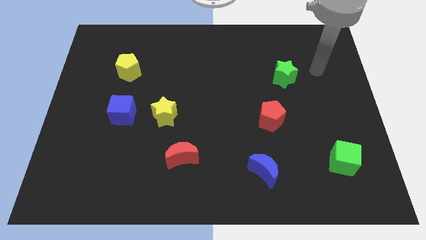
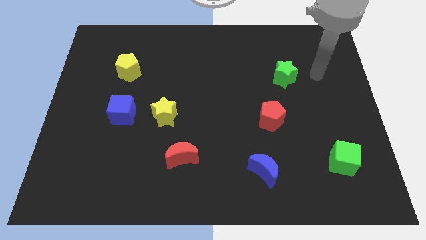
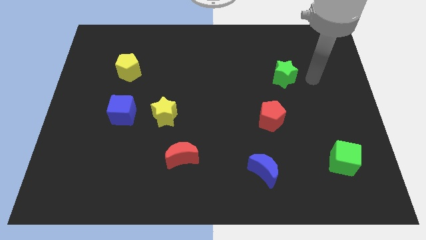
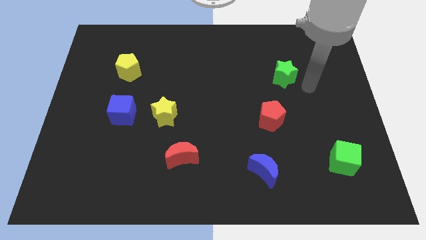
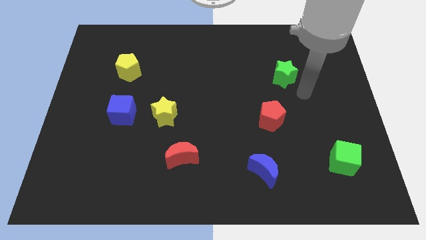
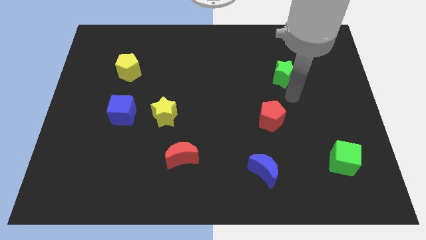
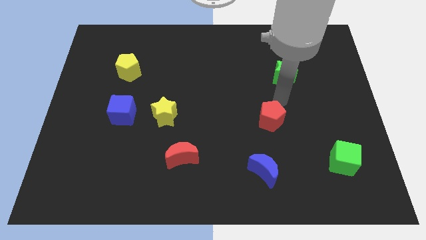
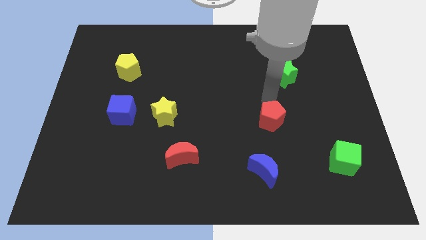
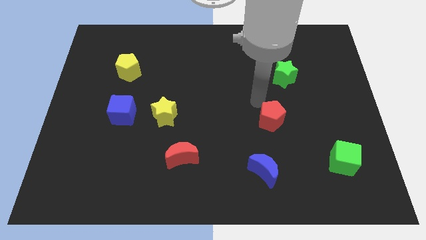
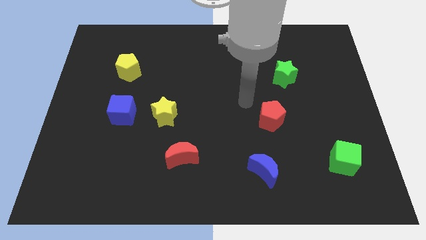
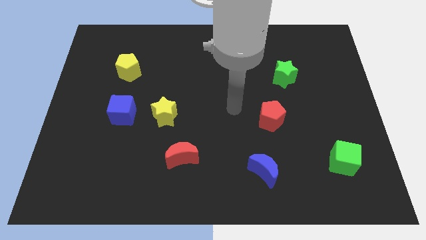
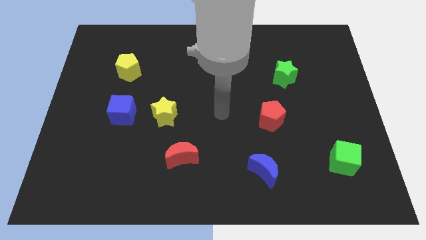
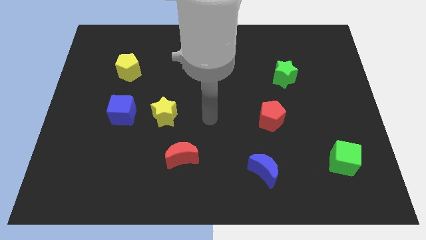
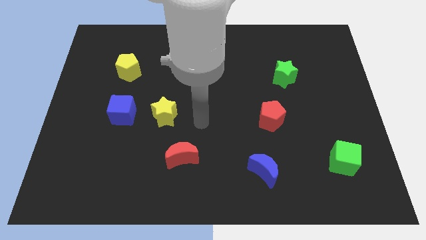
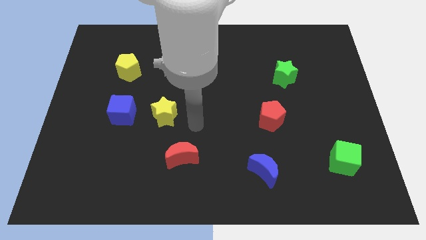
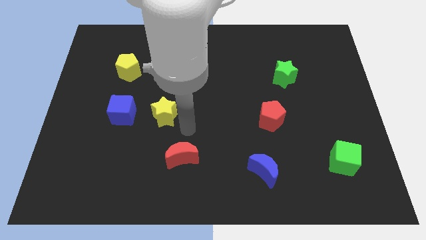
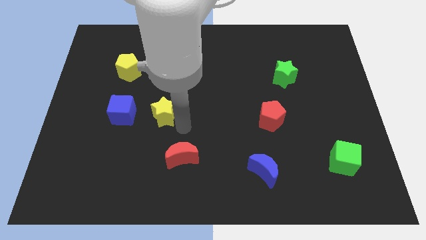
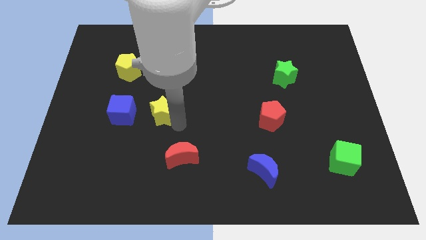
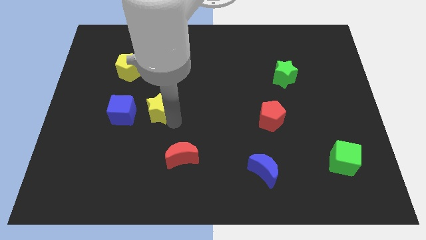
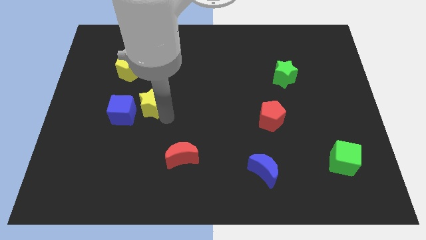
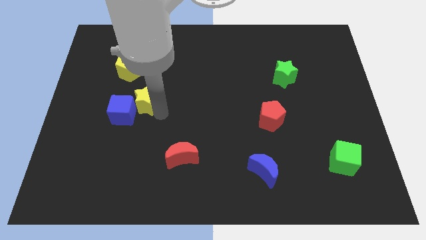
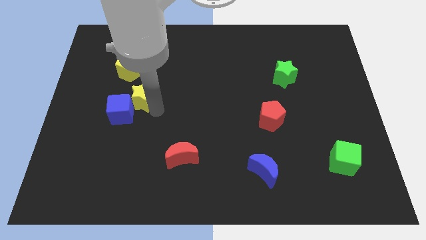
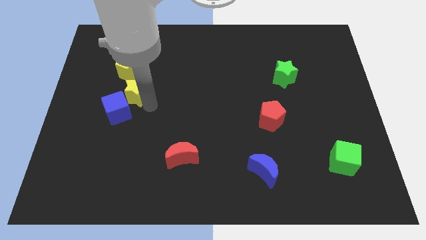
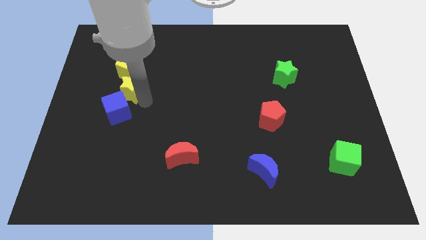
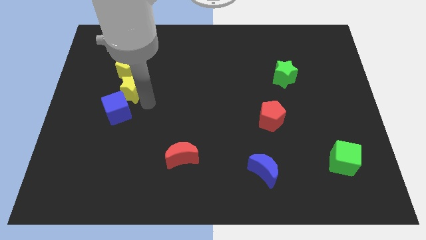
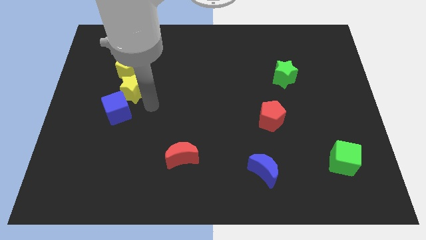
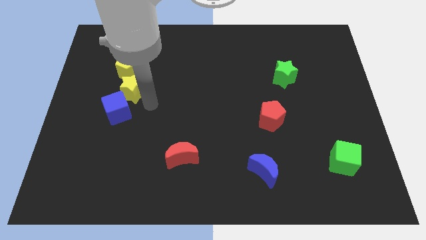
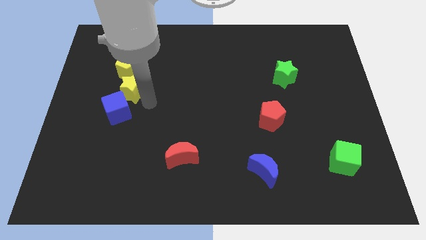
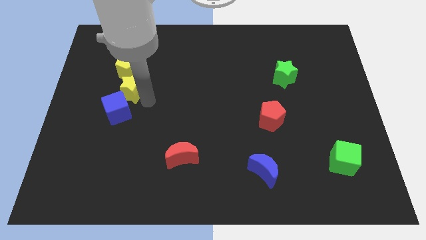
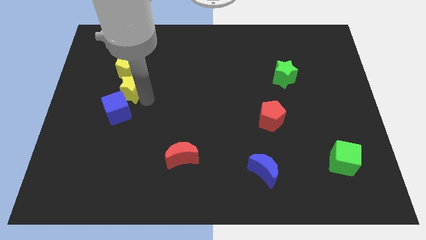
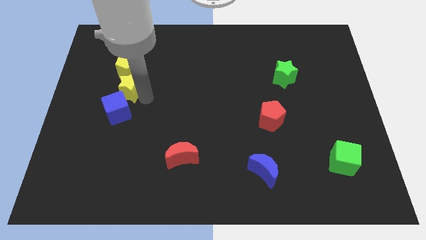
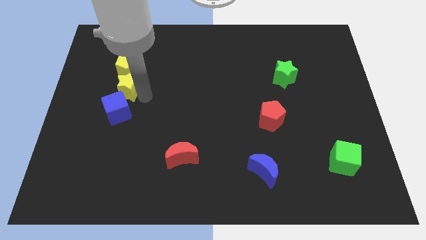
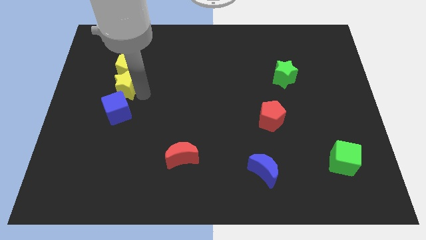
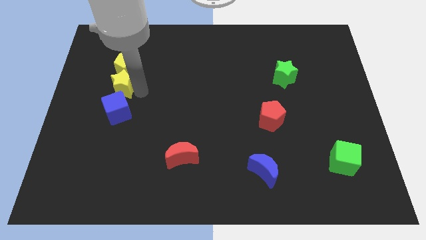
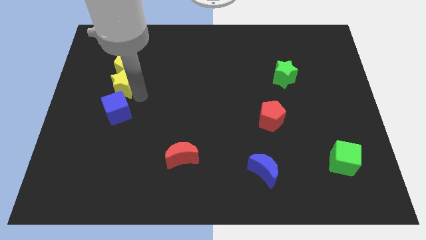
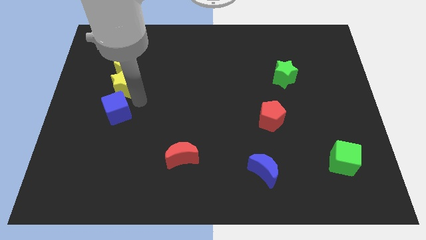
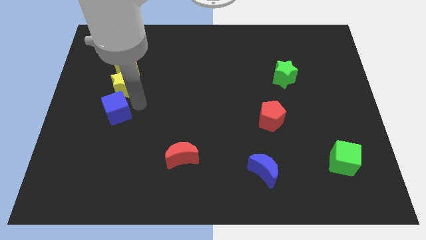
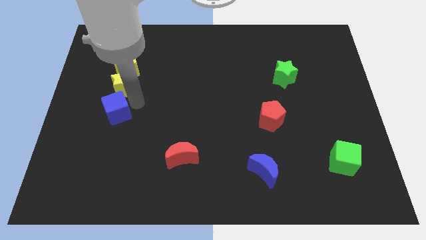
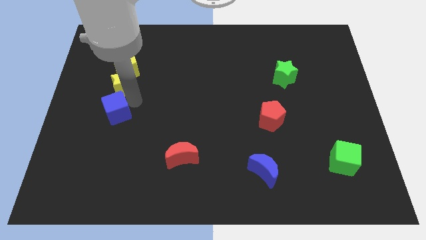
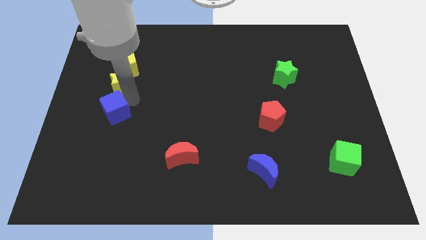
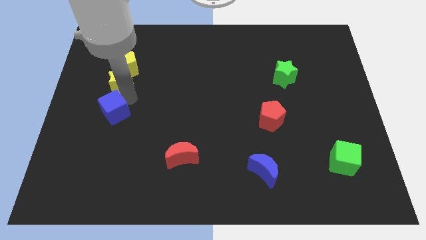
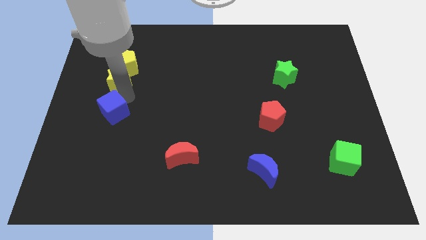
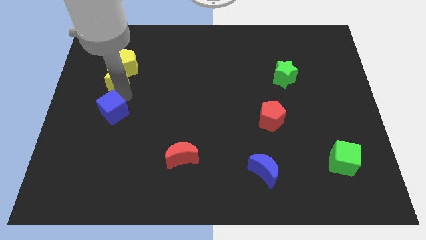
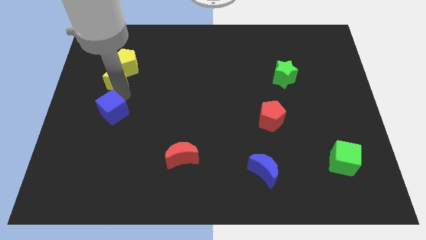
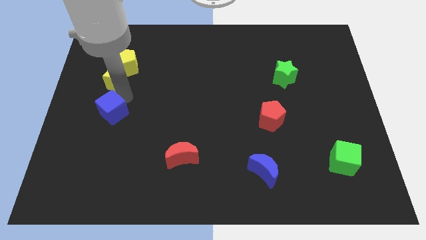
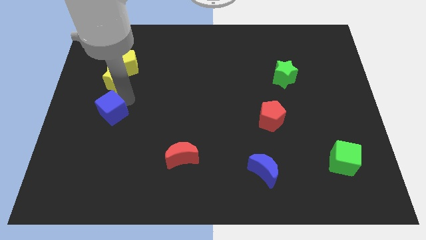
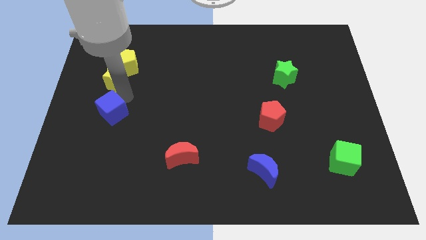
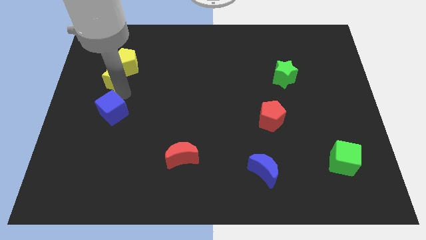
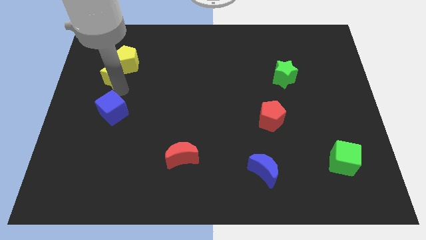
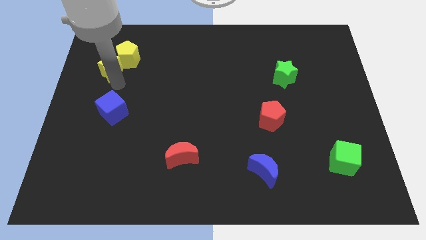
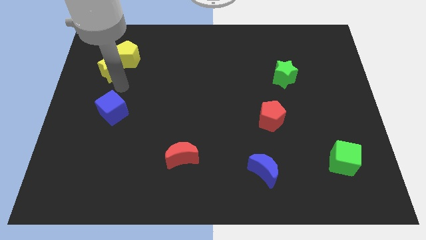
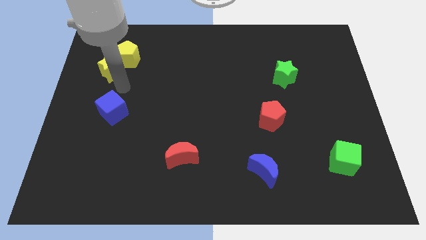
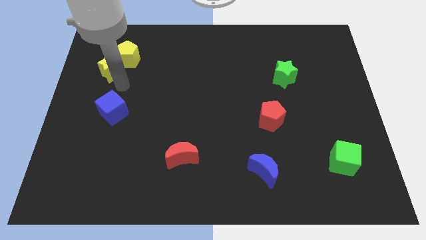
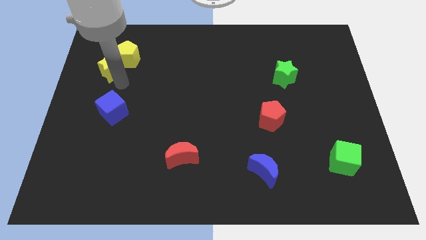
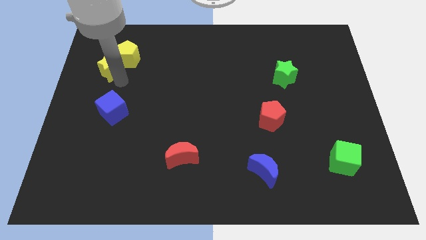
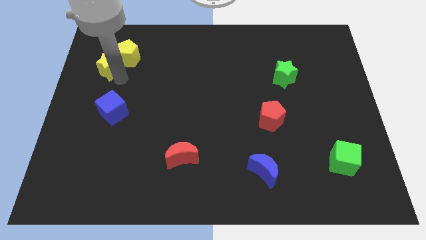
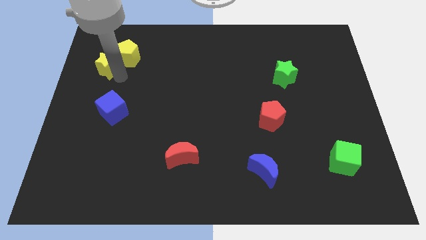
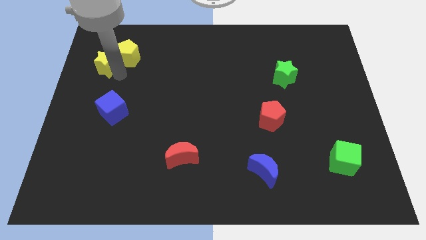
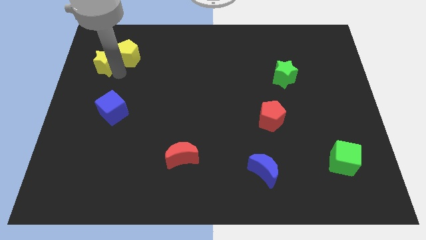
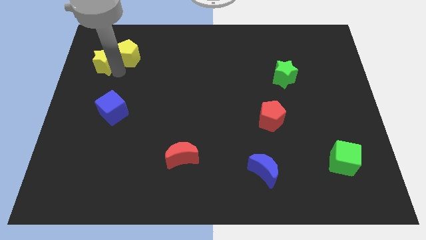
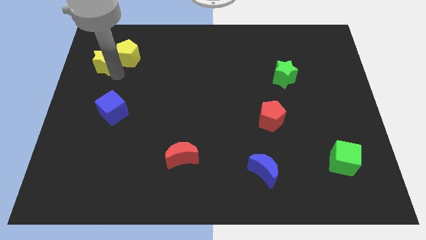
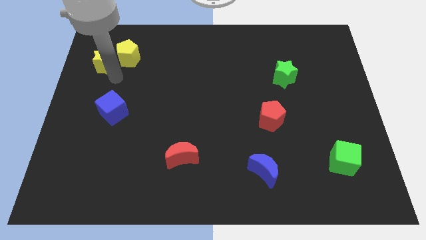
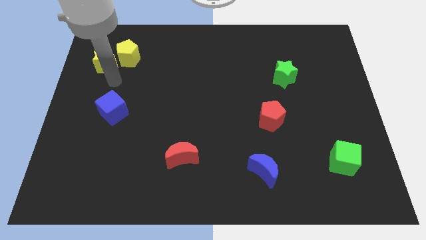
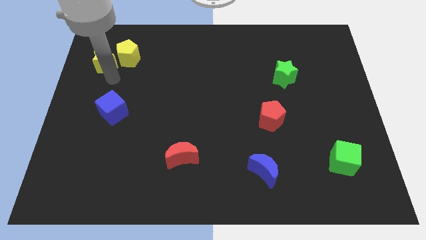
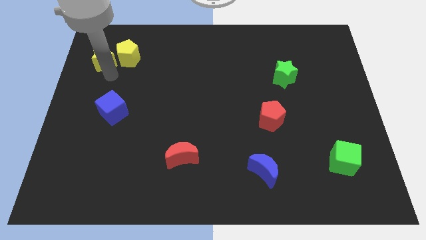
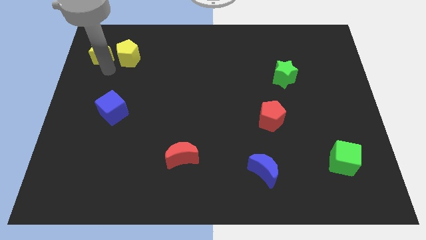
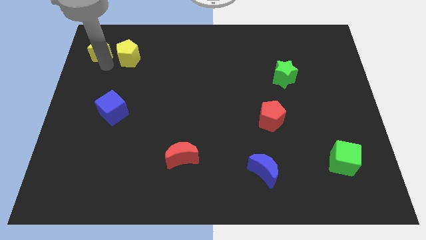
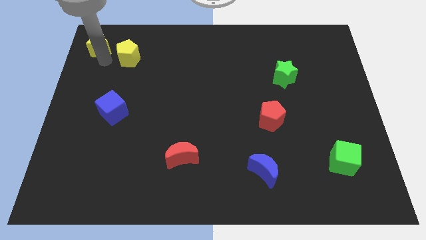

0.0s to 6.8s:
put the yellow star to the top left corner
